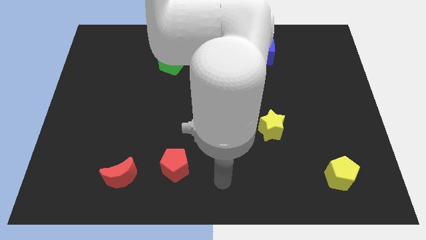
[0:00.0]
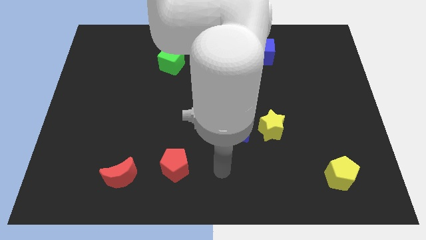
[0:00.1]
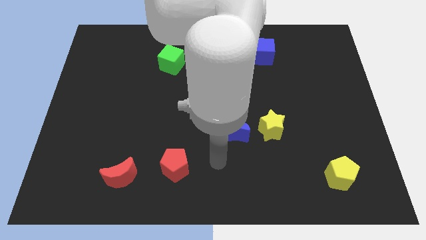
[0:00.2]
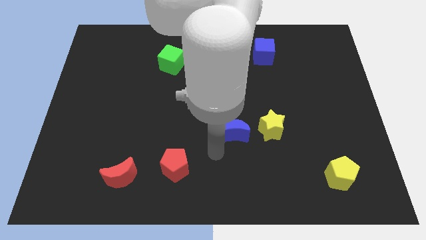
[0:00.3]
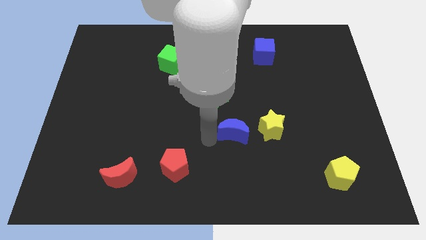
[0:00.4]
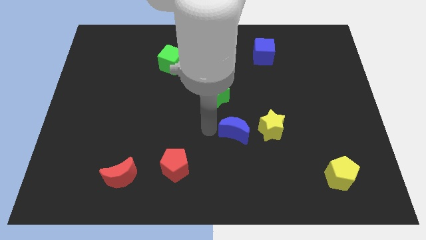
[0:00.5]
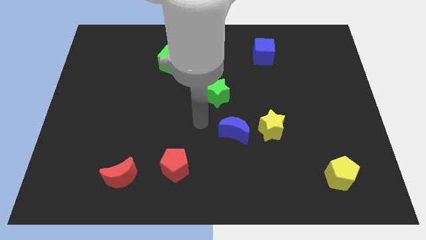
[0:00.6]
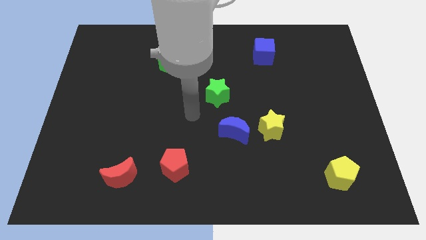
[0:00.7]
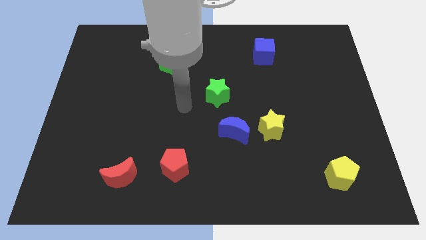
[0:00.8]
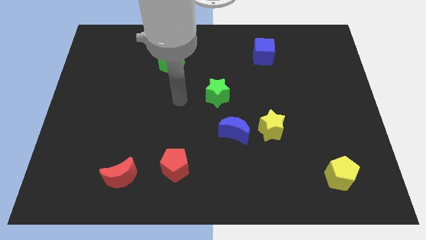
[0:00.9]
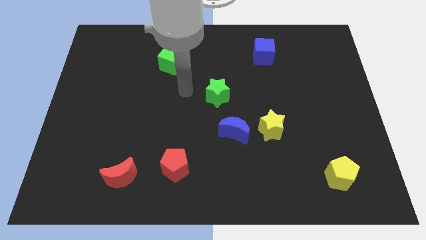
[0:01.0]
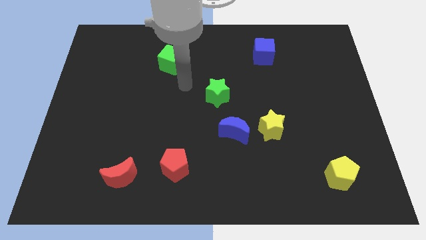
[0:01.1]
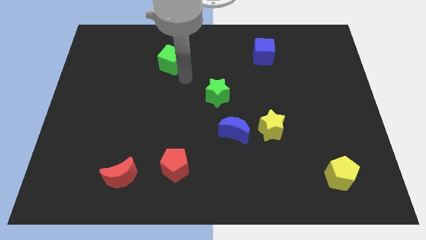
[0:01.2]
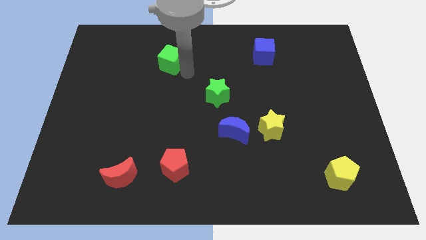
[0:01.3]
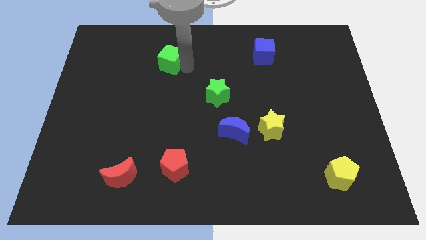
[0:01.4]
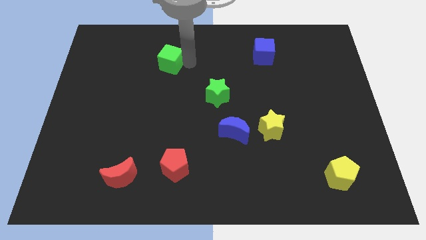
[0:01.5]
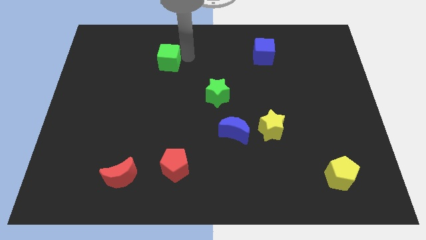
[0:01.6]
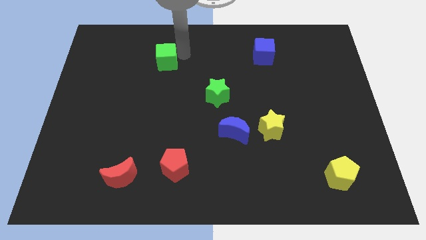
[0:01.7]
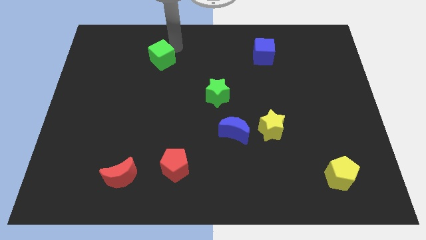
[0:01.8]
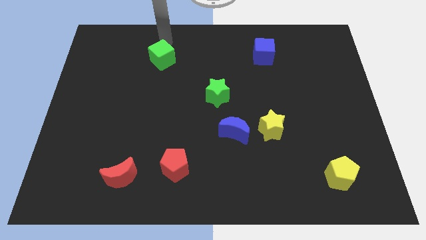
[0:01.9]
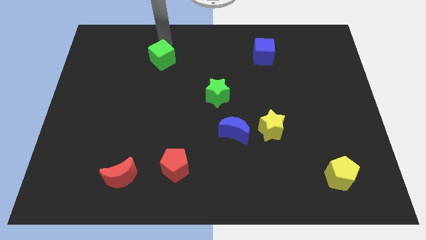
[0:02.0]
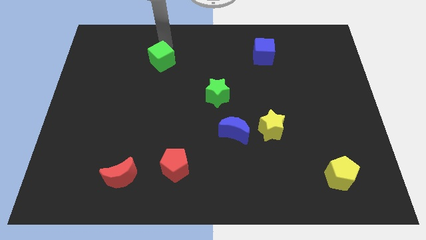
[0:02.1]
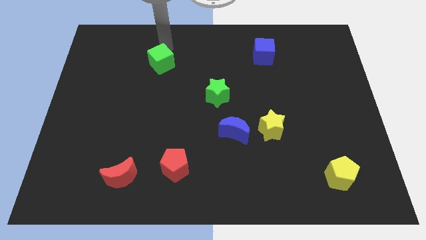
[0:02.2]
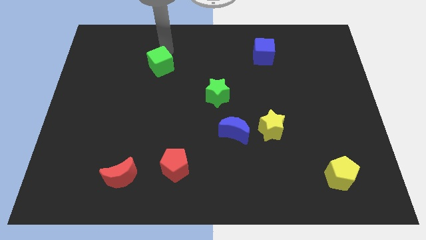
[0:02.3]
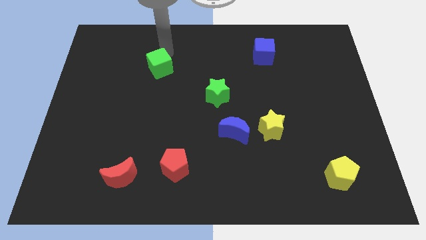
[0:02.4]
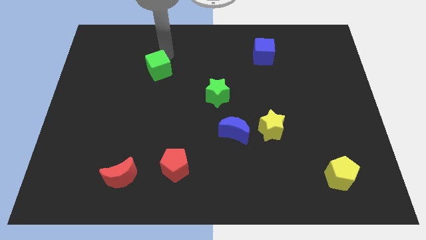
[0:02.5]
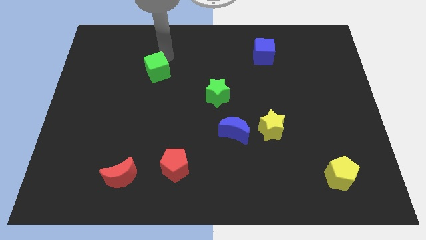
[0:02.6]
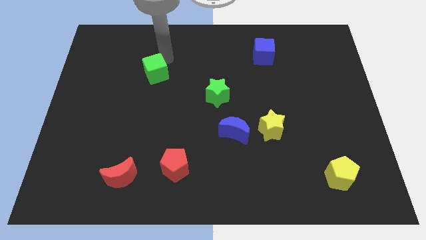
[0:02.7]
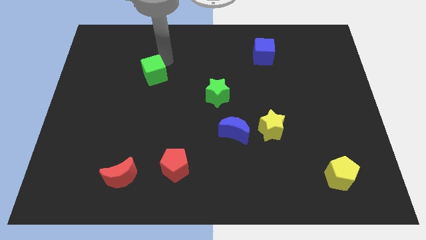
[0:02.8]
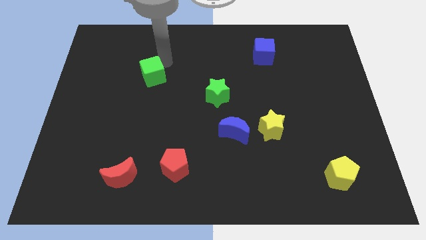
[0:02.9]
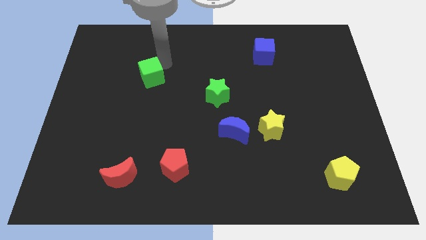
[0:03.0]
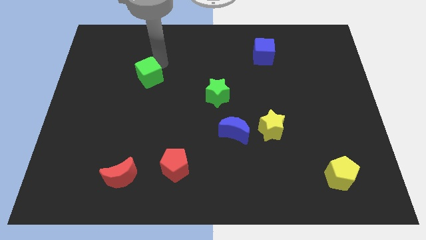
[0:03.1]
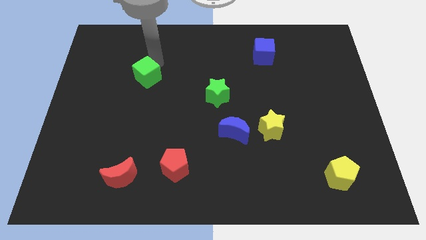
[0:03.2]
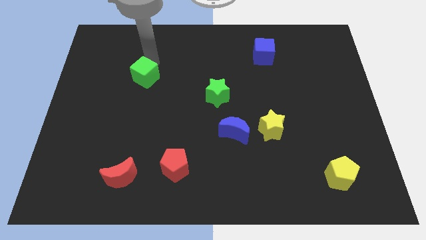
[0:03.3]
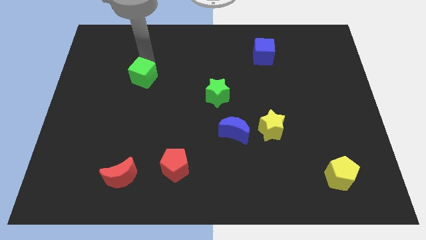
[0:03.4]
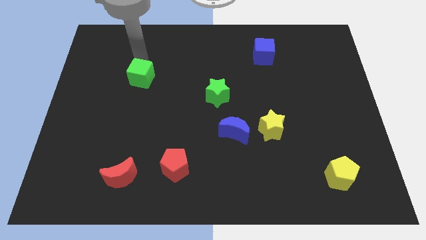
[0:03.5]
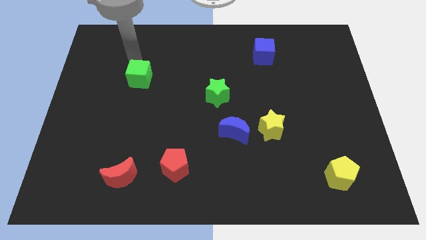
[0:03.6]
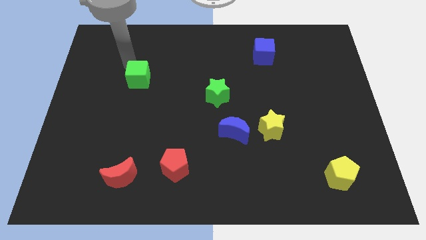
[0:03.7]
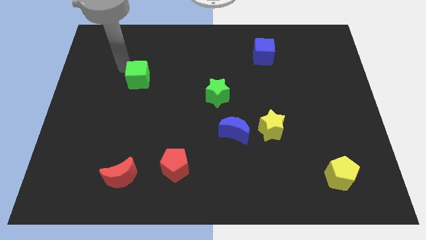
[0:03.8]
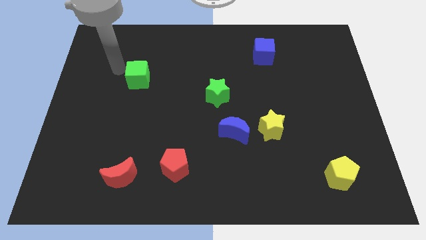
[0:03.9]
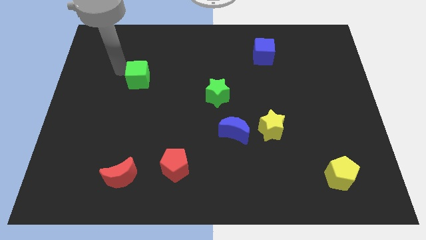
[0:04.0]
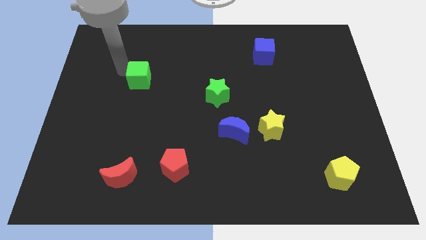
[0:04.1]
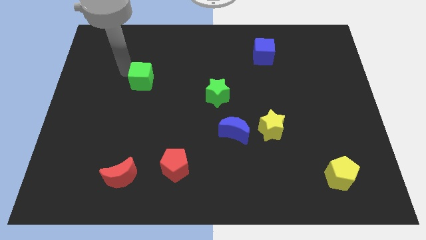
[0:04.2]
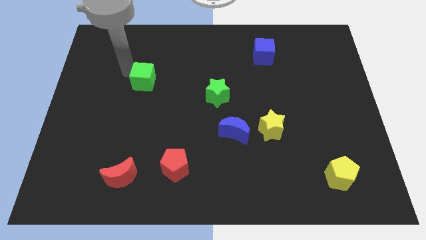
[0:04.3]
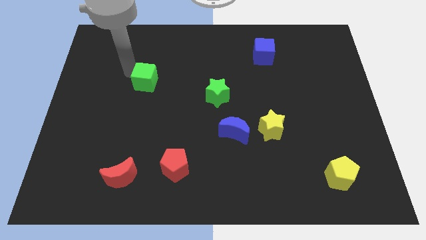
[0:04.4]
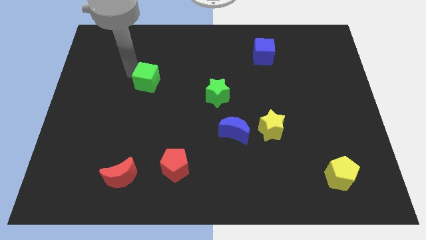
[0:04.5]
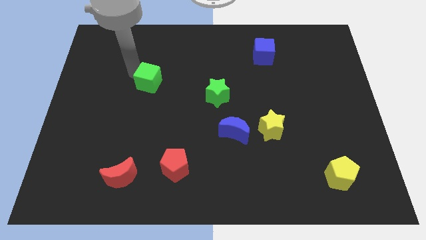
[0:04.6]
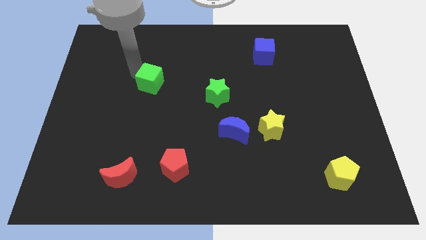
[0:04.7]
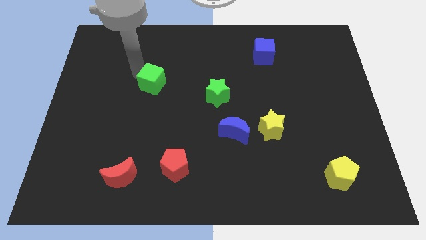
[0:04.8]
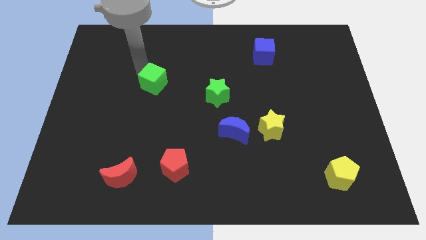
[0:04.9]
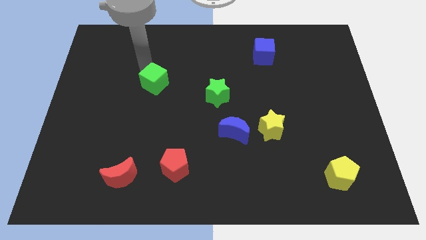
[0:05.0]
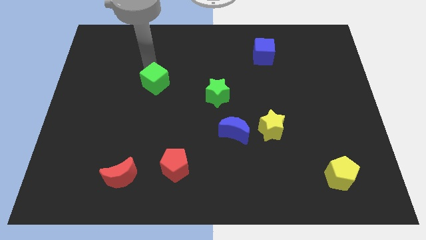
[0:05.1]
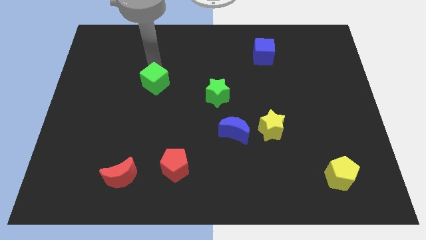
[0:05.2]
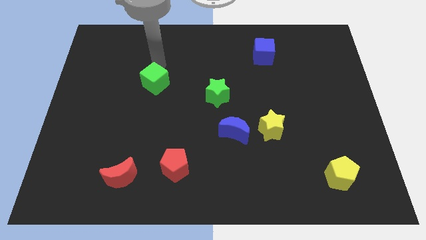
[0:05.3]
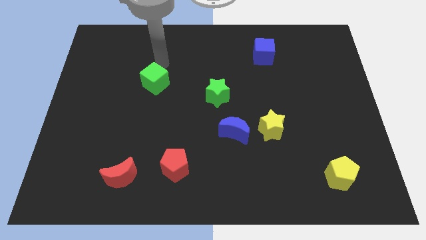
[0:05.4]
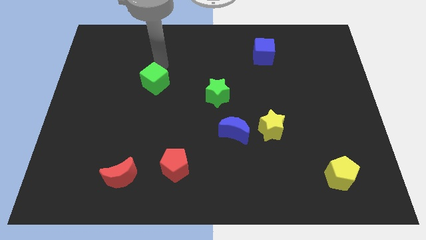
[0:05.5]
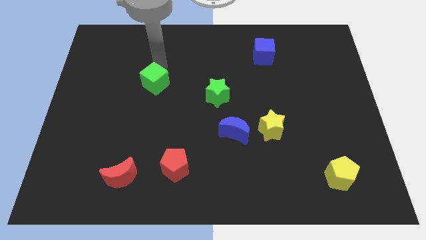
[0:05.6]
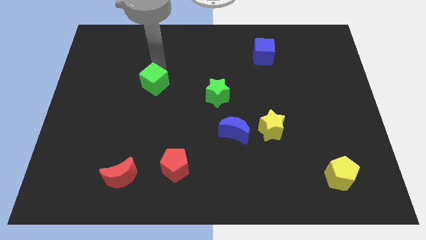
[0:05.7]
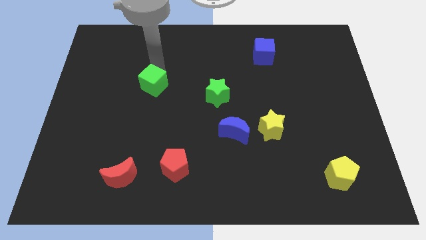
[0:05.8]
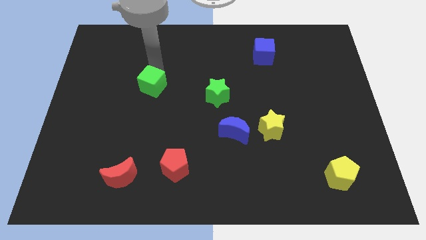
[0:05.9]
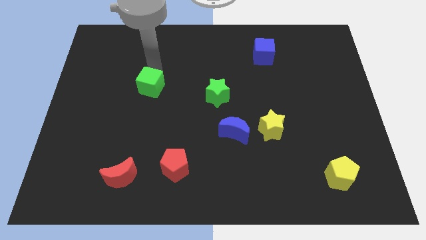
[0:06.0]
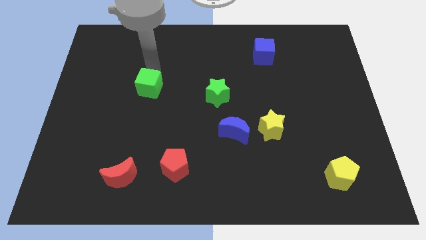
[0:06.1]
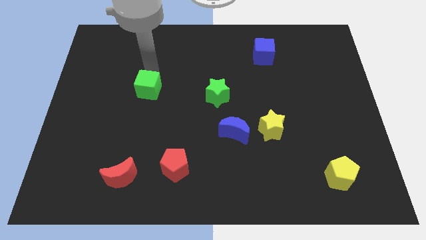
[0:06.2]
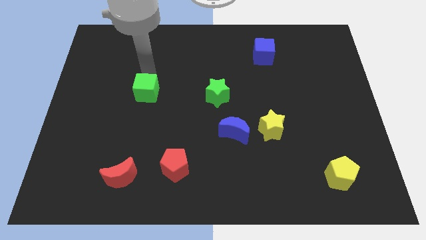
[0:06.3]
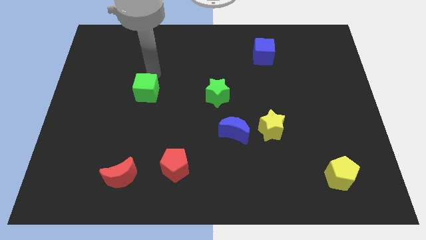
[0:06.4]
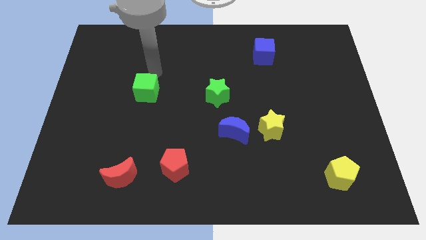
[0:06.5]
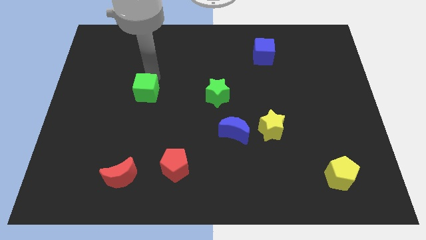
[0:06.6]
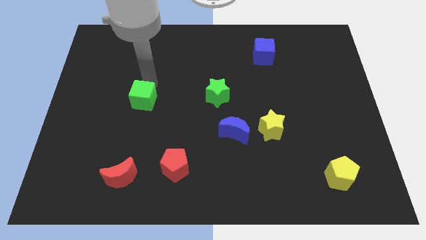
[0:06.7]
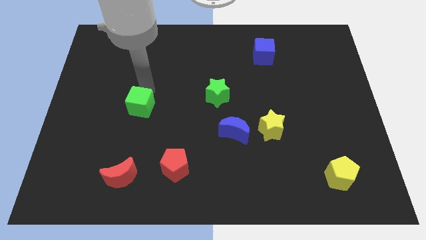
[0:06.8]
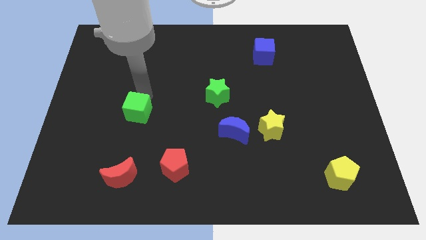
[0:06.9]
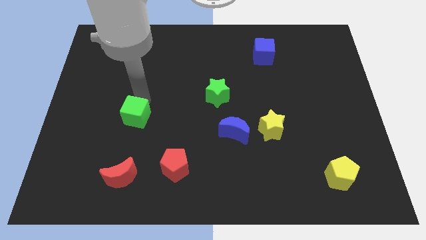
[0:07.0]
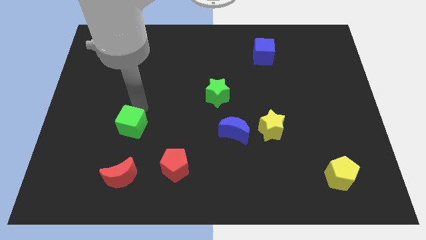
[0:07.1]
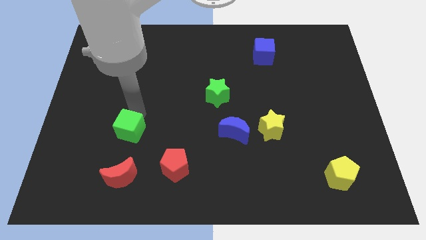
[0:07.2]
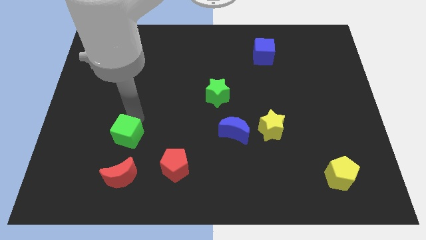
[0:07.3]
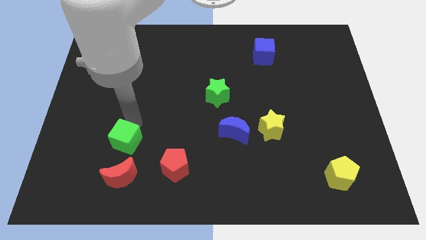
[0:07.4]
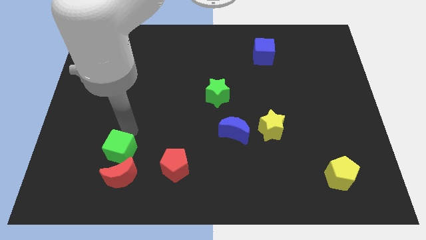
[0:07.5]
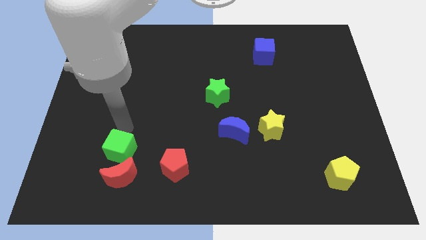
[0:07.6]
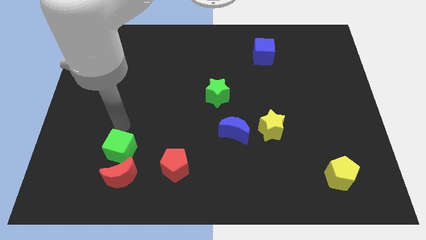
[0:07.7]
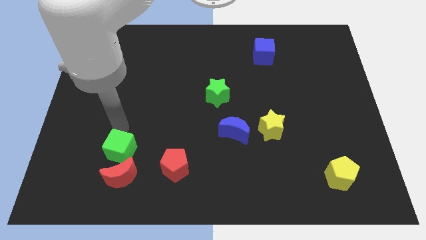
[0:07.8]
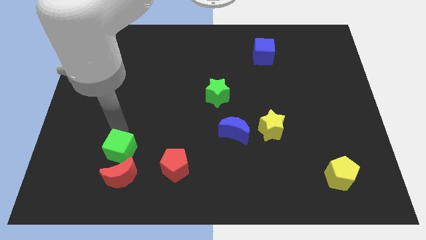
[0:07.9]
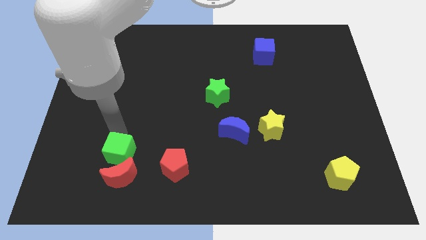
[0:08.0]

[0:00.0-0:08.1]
move the green cube close to the red moon
